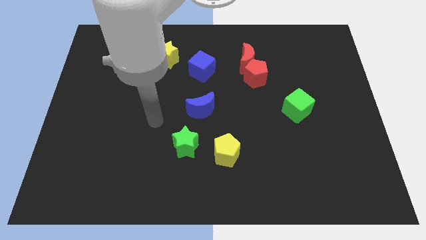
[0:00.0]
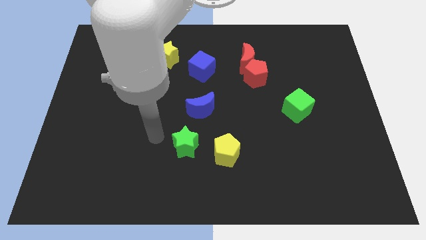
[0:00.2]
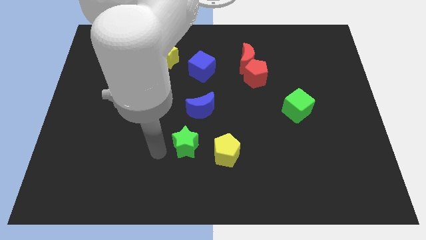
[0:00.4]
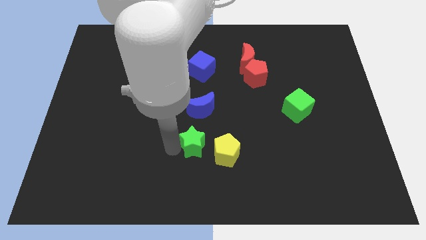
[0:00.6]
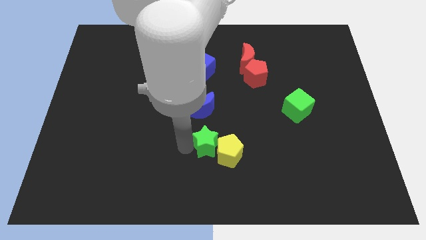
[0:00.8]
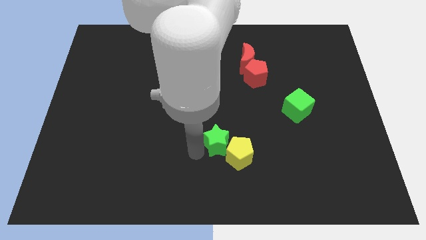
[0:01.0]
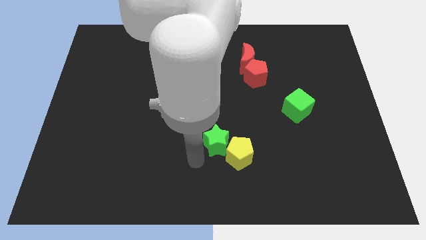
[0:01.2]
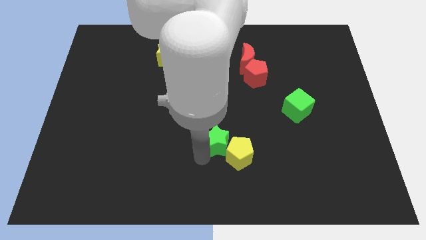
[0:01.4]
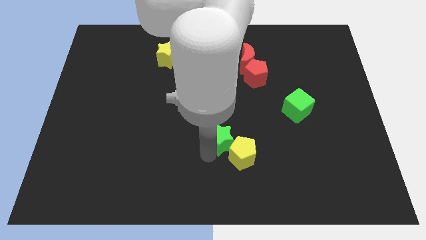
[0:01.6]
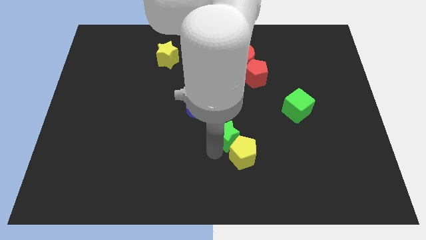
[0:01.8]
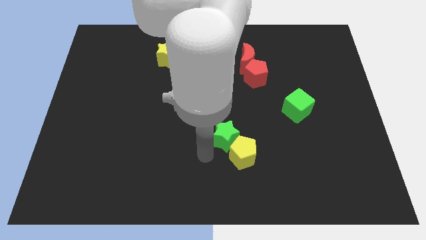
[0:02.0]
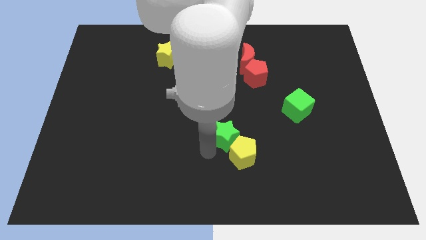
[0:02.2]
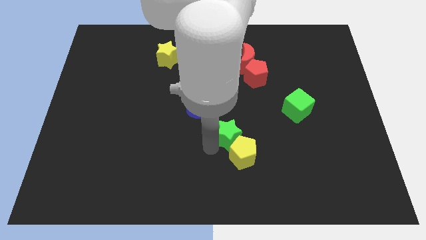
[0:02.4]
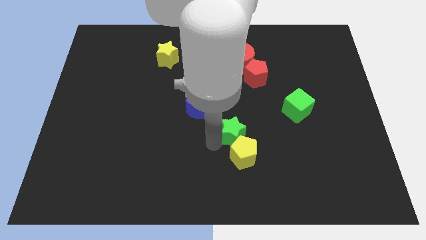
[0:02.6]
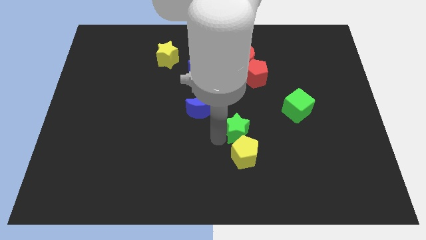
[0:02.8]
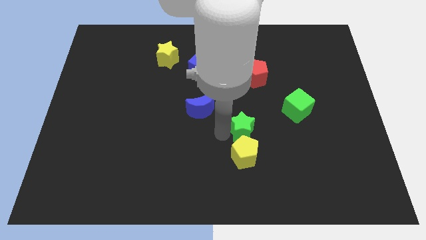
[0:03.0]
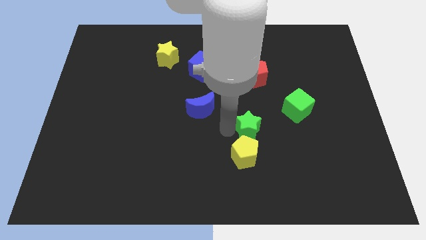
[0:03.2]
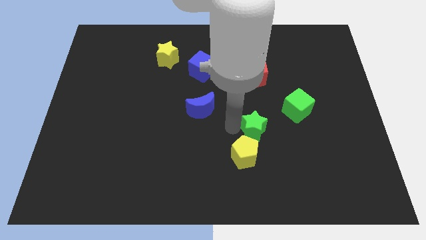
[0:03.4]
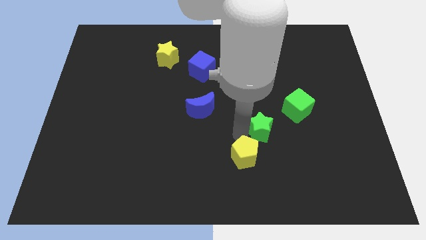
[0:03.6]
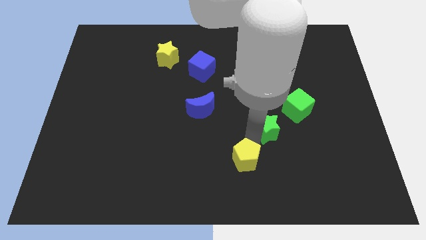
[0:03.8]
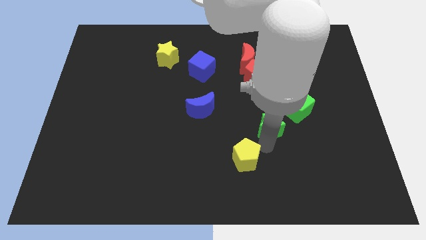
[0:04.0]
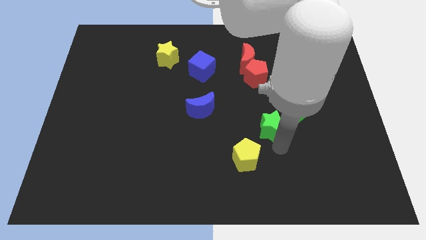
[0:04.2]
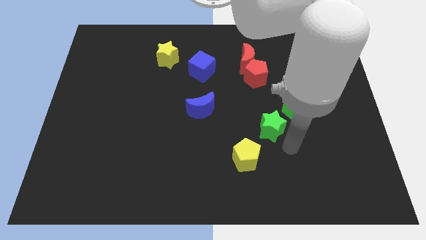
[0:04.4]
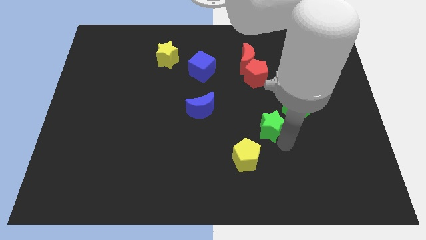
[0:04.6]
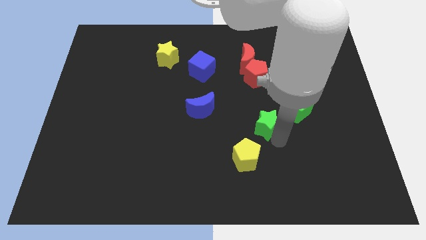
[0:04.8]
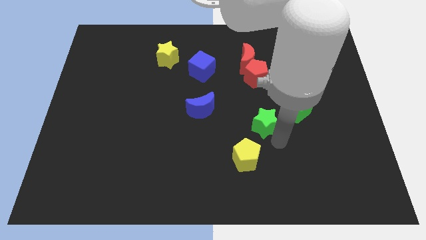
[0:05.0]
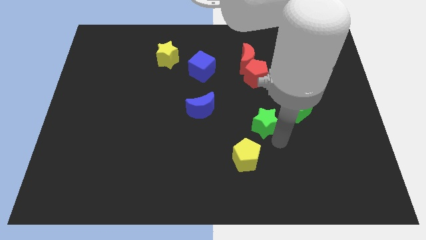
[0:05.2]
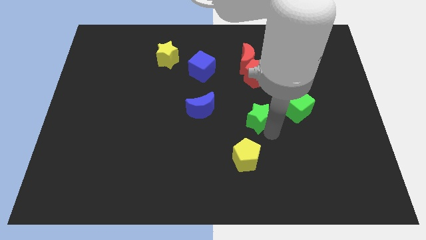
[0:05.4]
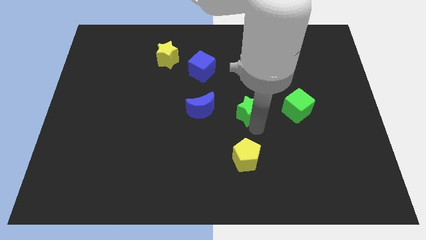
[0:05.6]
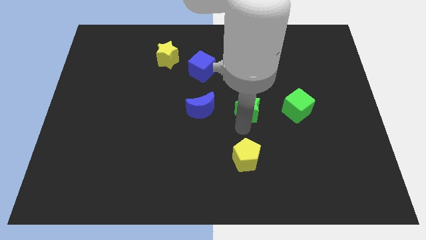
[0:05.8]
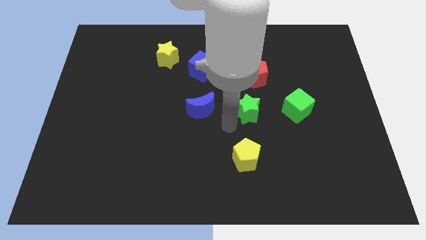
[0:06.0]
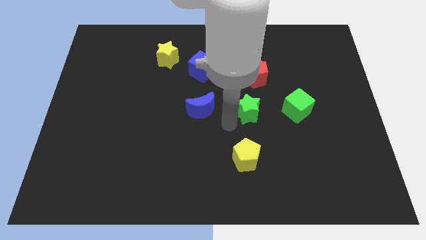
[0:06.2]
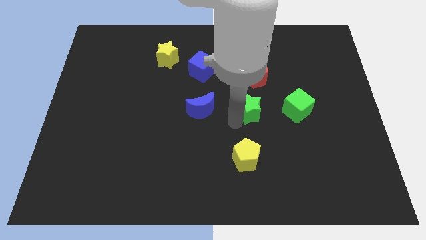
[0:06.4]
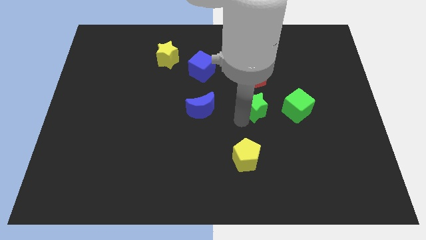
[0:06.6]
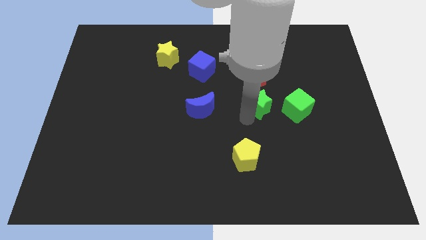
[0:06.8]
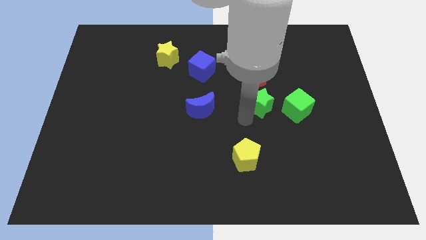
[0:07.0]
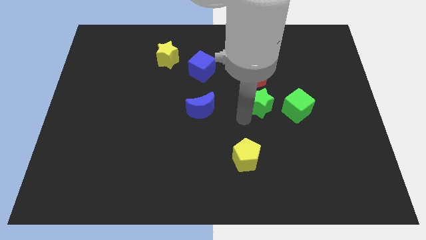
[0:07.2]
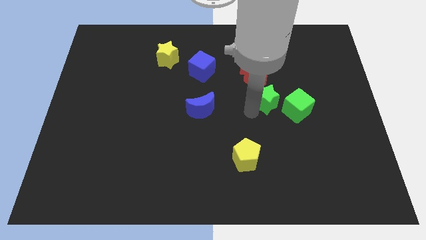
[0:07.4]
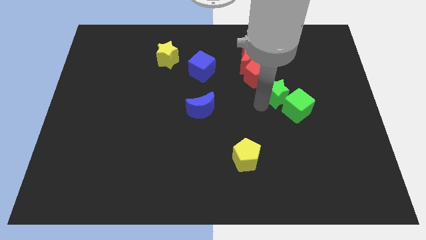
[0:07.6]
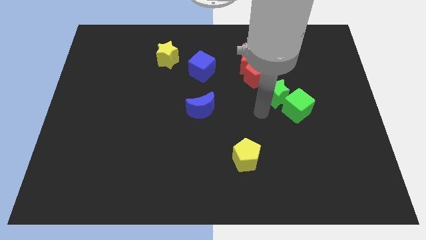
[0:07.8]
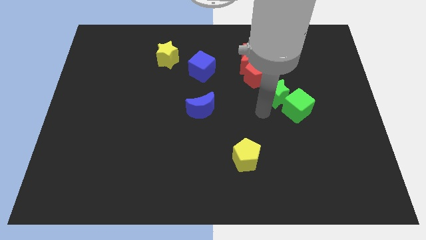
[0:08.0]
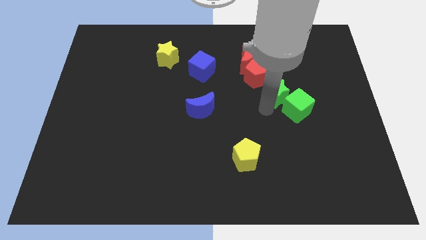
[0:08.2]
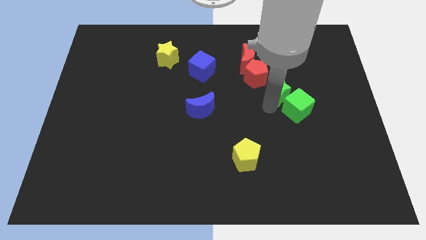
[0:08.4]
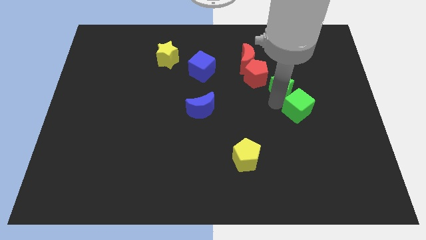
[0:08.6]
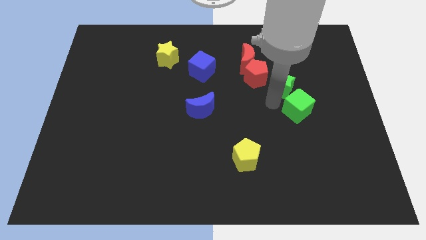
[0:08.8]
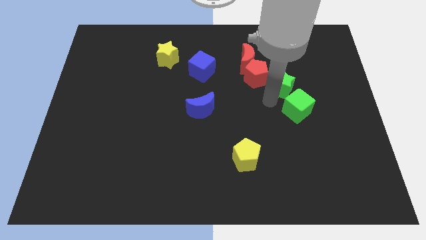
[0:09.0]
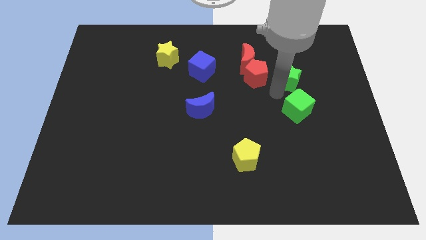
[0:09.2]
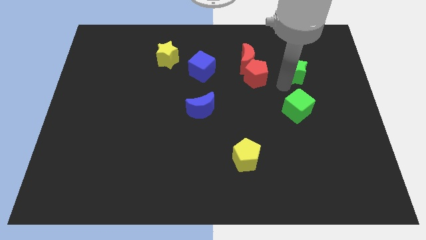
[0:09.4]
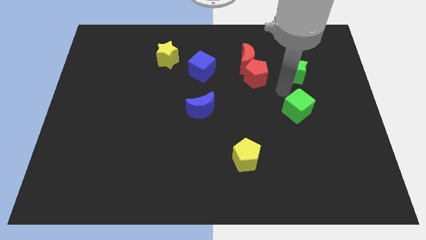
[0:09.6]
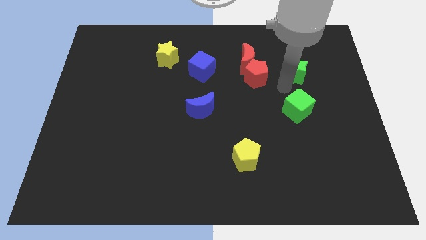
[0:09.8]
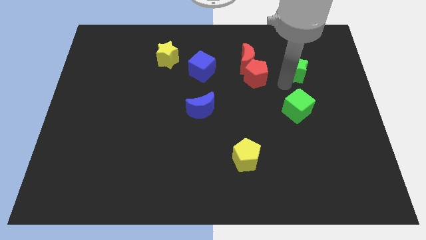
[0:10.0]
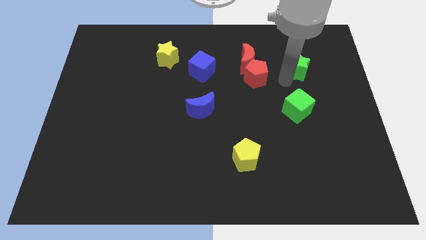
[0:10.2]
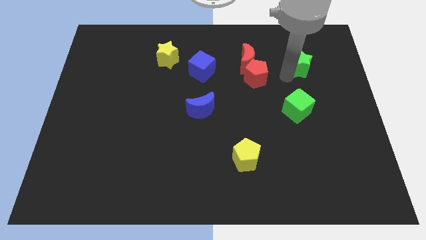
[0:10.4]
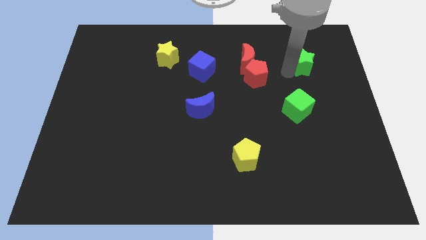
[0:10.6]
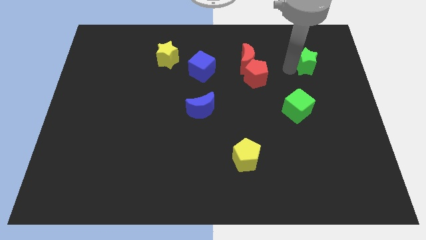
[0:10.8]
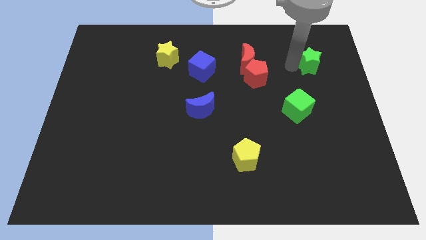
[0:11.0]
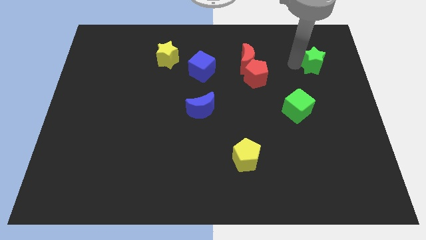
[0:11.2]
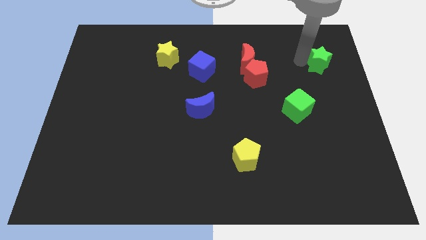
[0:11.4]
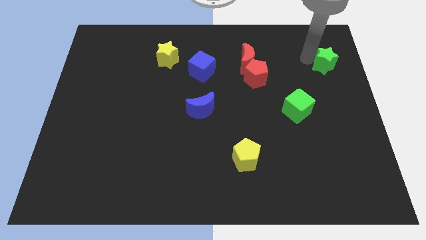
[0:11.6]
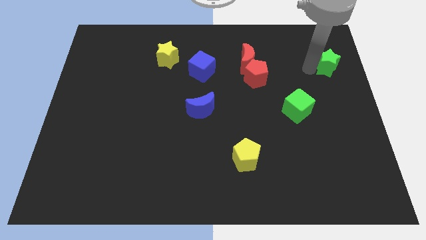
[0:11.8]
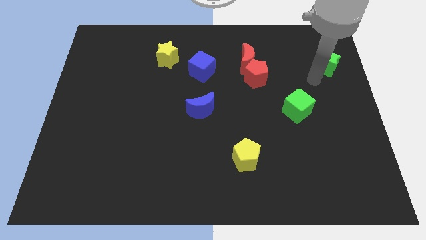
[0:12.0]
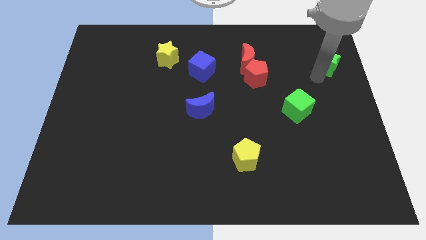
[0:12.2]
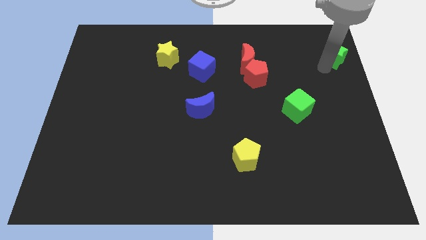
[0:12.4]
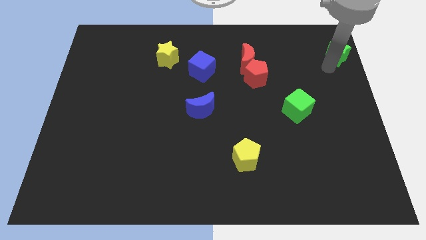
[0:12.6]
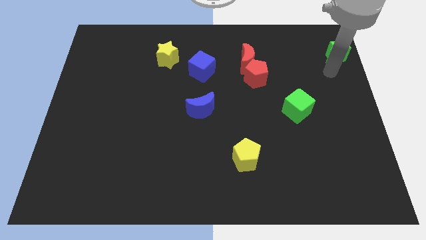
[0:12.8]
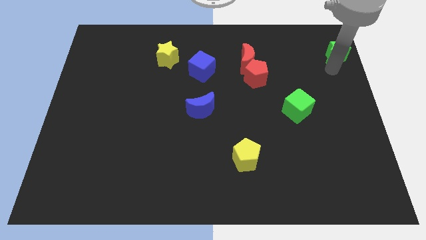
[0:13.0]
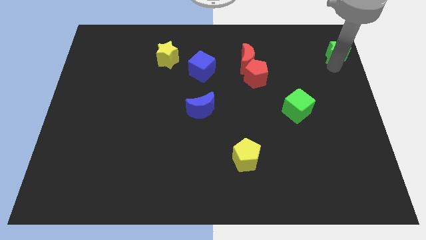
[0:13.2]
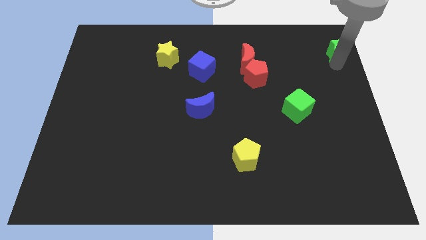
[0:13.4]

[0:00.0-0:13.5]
move the green star to the top right of the board
